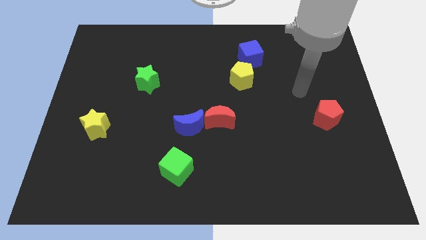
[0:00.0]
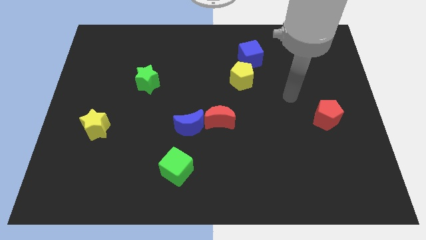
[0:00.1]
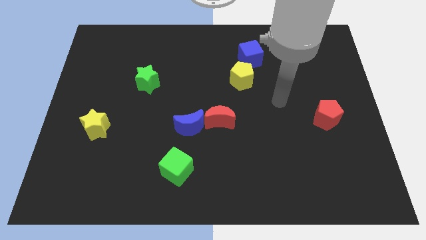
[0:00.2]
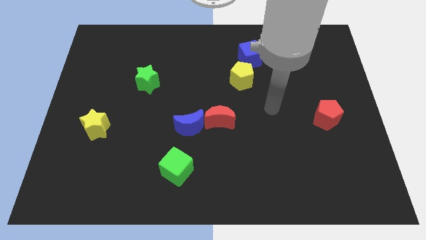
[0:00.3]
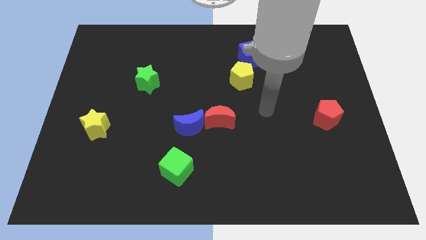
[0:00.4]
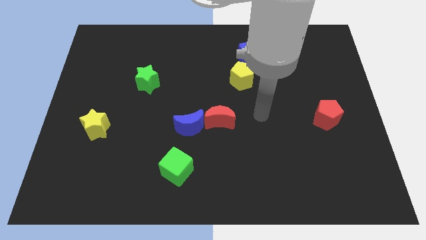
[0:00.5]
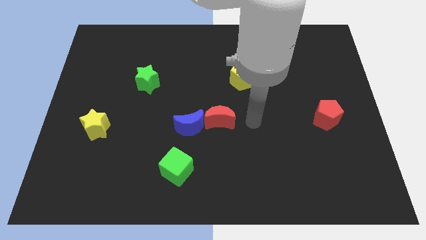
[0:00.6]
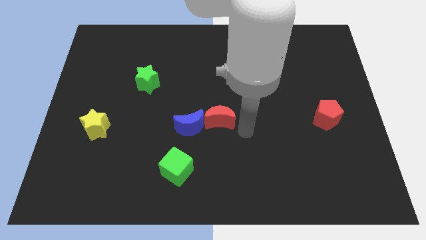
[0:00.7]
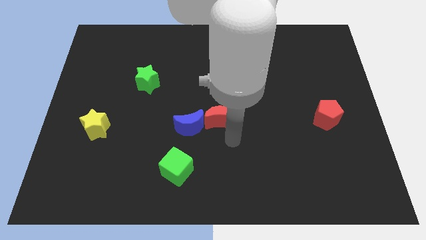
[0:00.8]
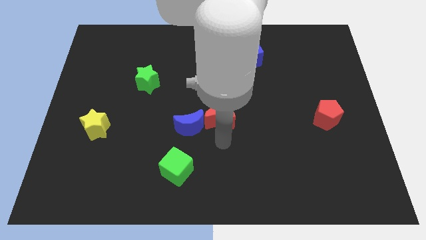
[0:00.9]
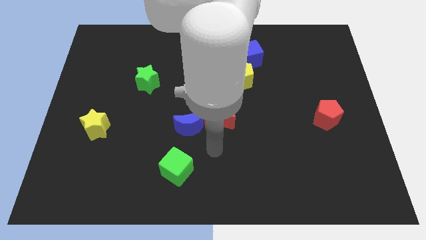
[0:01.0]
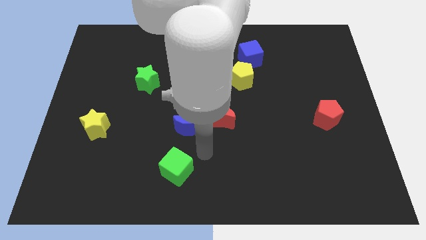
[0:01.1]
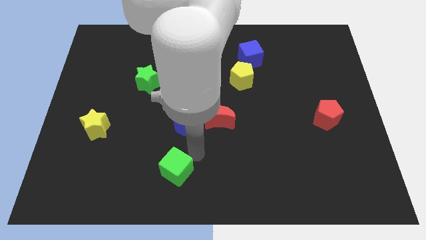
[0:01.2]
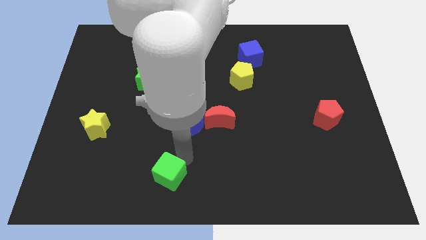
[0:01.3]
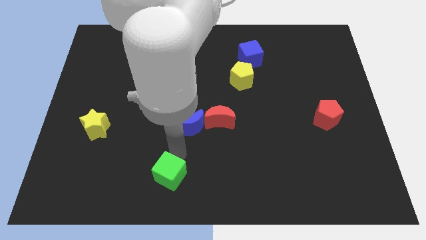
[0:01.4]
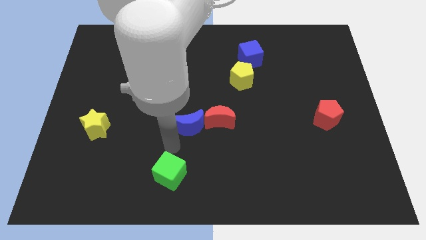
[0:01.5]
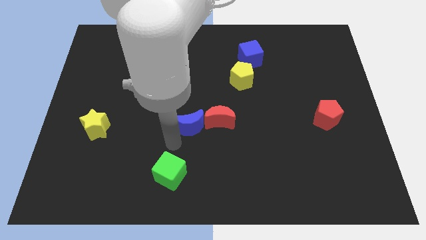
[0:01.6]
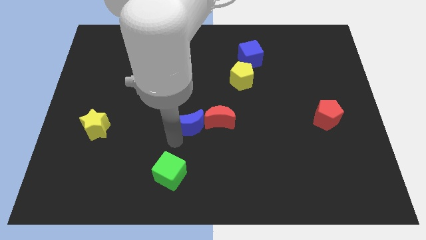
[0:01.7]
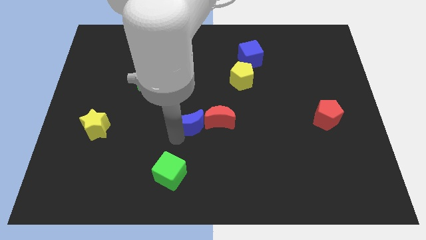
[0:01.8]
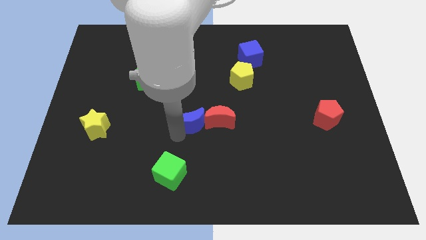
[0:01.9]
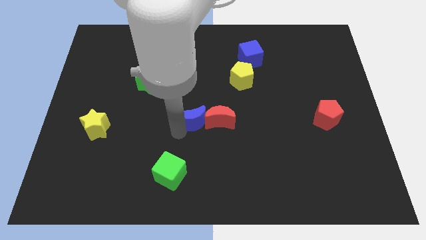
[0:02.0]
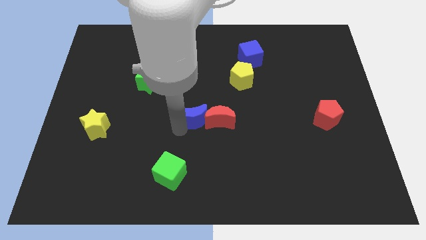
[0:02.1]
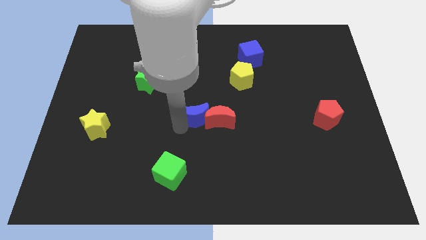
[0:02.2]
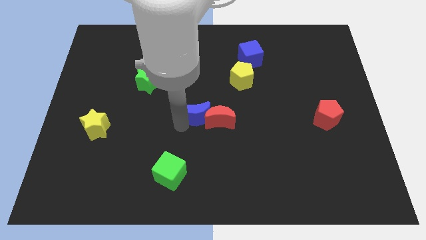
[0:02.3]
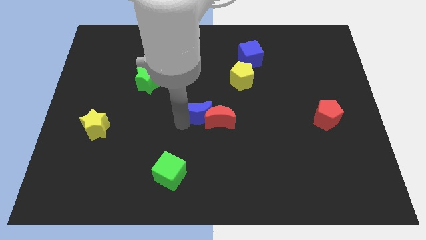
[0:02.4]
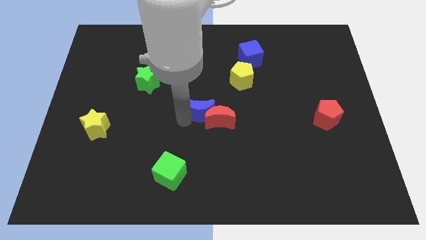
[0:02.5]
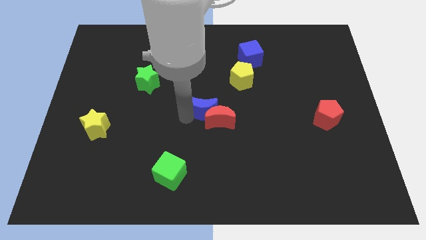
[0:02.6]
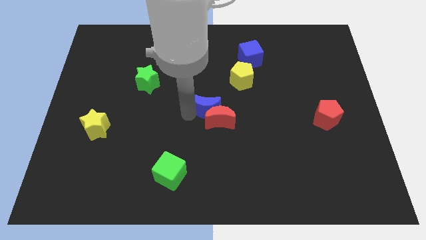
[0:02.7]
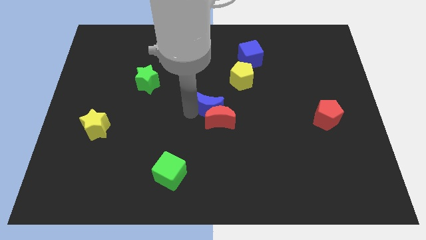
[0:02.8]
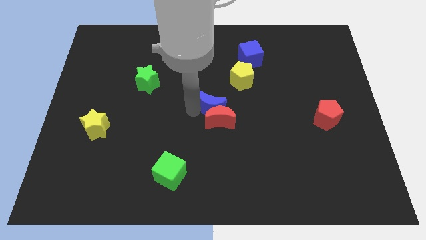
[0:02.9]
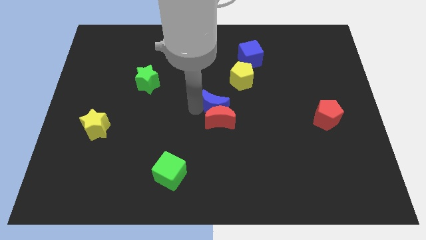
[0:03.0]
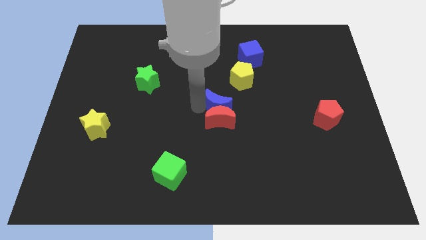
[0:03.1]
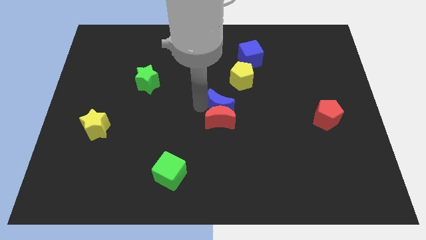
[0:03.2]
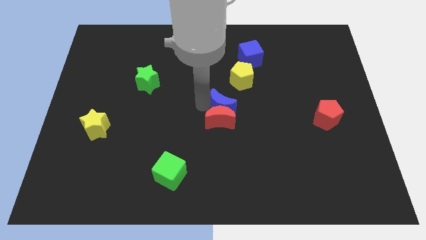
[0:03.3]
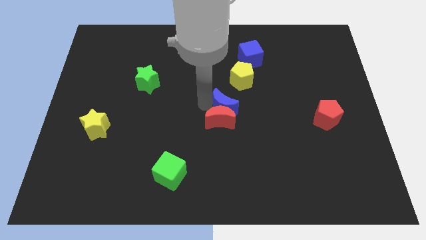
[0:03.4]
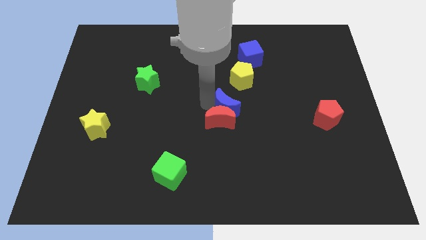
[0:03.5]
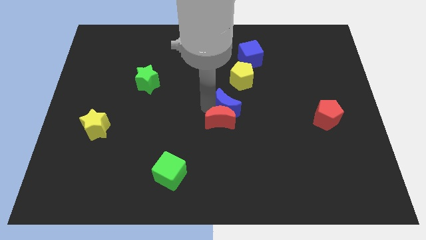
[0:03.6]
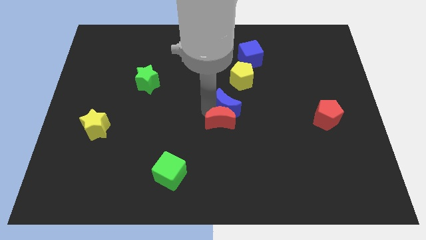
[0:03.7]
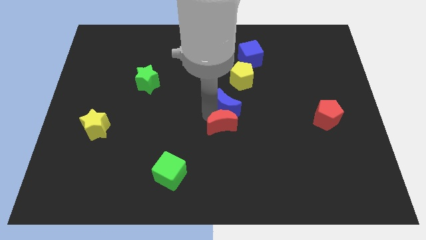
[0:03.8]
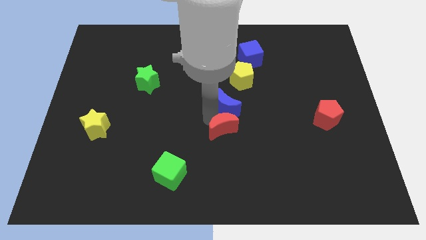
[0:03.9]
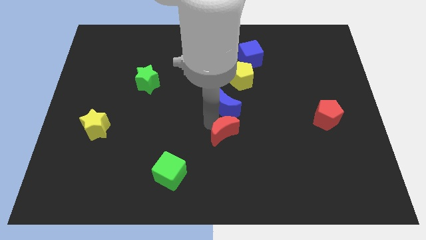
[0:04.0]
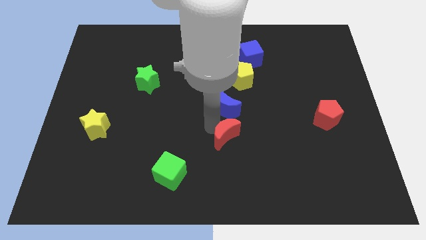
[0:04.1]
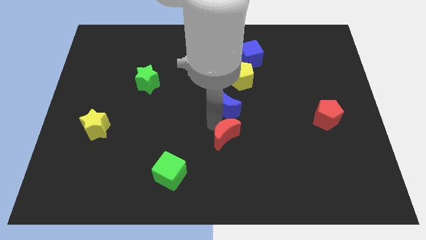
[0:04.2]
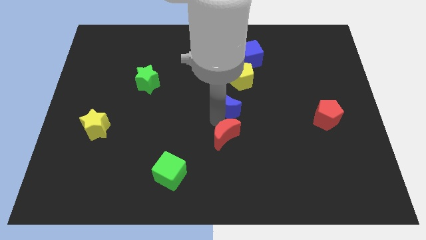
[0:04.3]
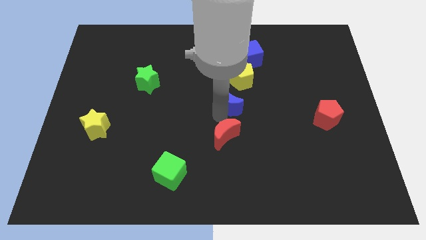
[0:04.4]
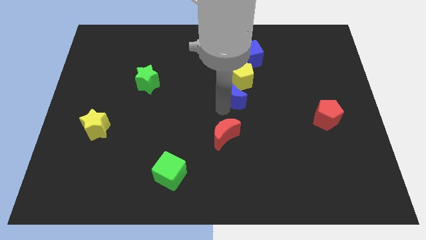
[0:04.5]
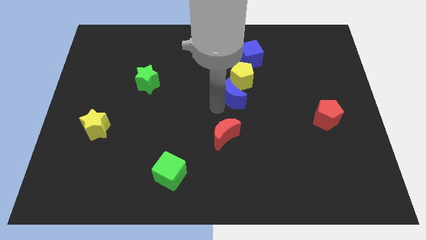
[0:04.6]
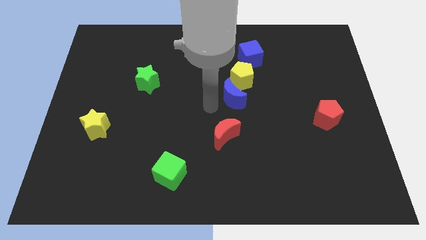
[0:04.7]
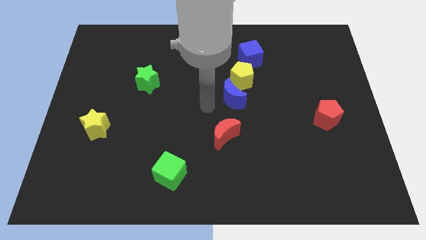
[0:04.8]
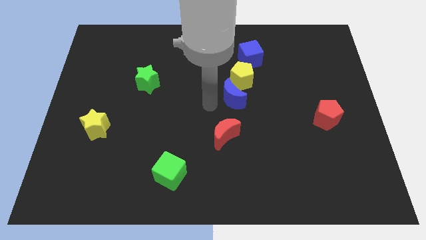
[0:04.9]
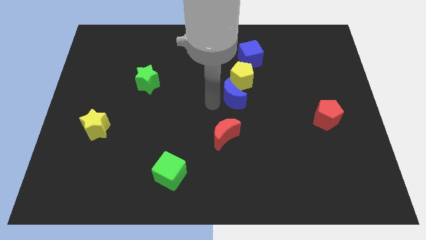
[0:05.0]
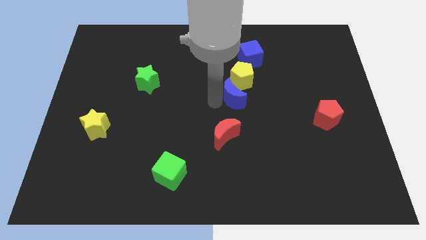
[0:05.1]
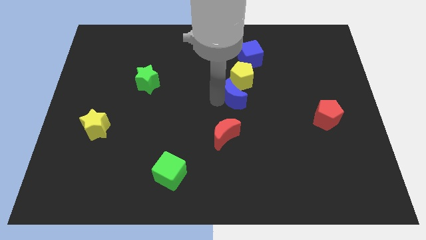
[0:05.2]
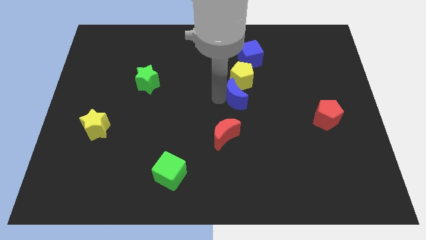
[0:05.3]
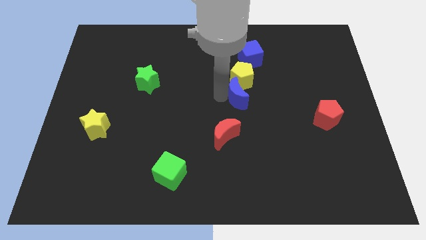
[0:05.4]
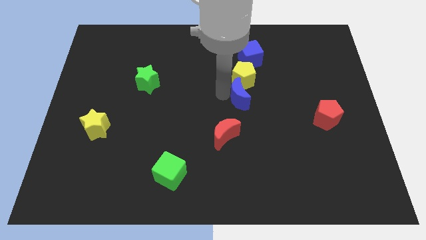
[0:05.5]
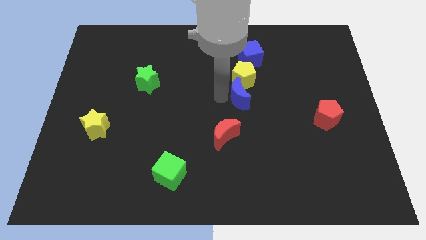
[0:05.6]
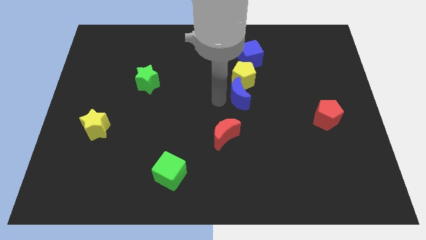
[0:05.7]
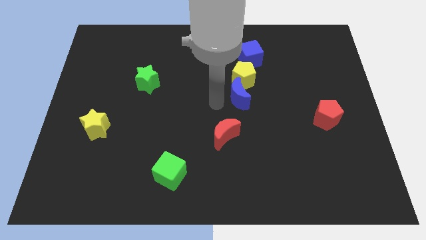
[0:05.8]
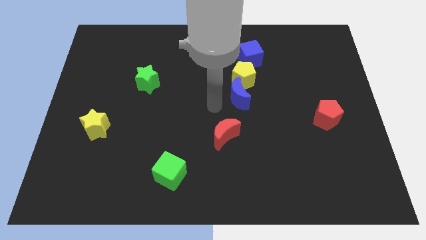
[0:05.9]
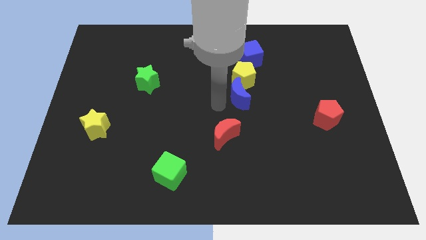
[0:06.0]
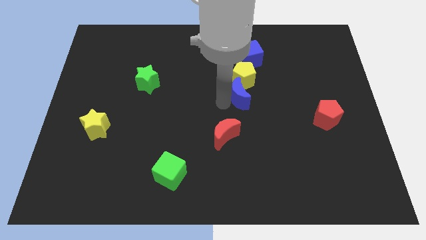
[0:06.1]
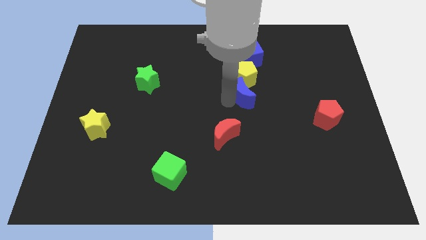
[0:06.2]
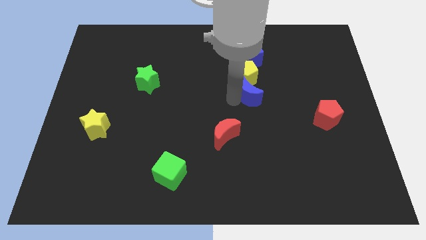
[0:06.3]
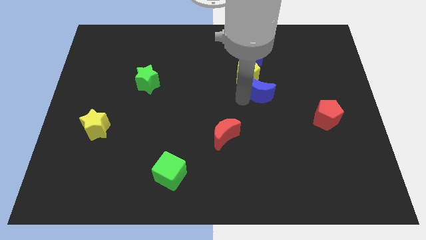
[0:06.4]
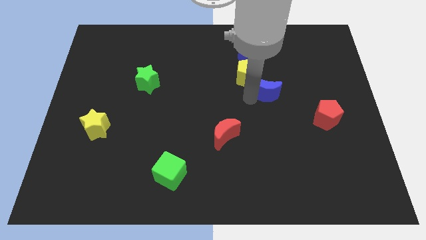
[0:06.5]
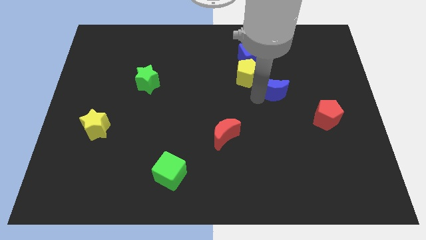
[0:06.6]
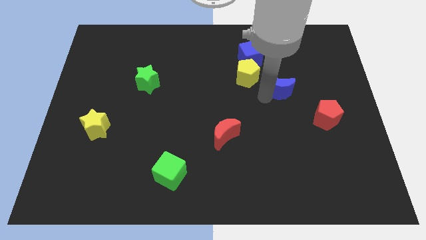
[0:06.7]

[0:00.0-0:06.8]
slide the blue moon upwards and then right

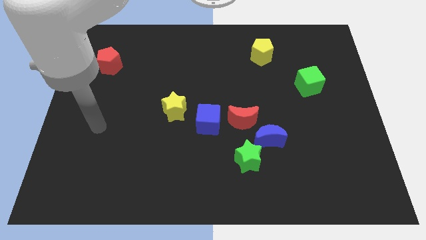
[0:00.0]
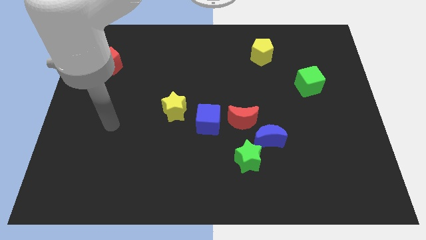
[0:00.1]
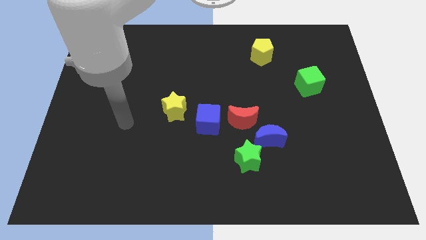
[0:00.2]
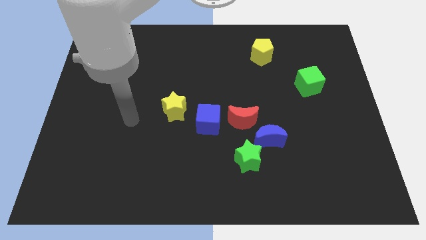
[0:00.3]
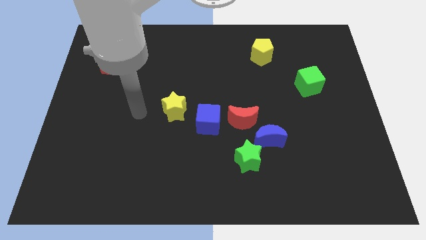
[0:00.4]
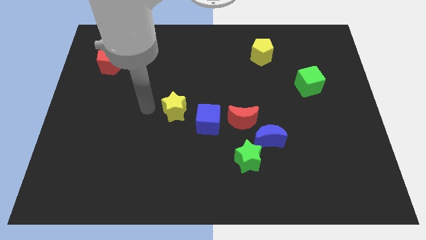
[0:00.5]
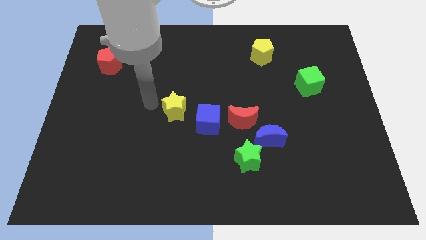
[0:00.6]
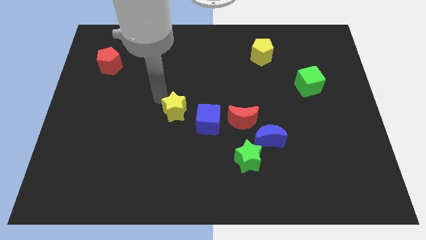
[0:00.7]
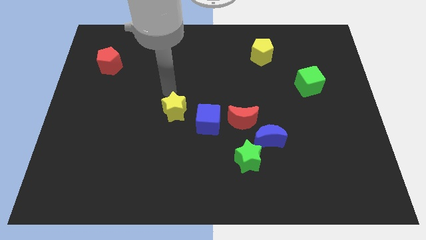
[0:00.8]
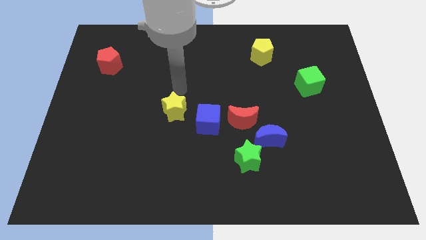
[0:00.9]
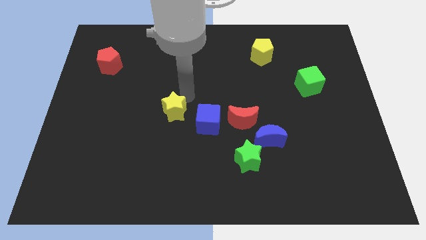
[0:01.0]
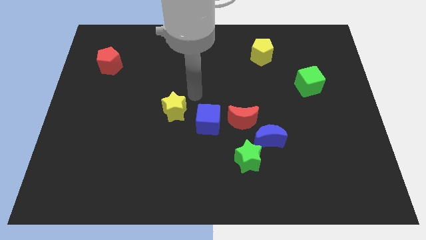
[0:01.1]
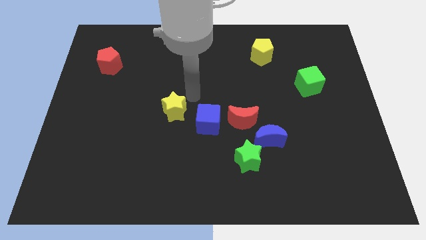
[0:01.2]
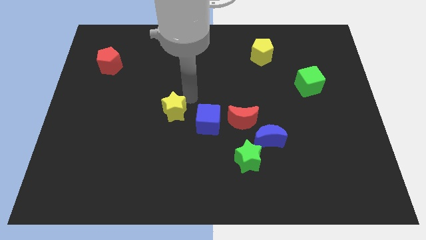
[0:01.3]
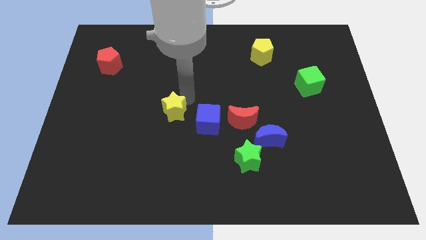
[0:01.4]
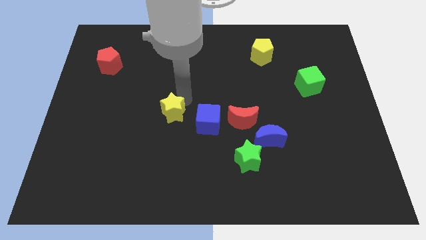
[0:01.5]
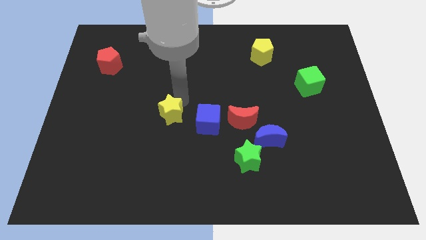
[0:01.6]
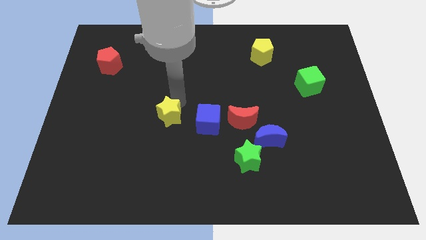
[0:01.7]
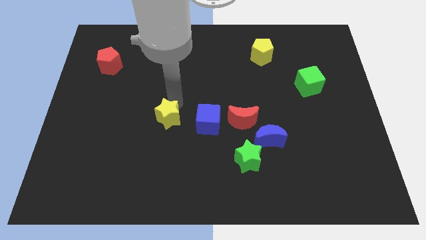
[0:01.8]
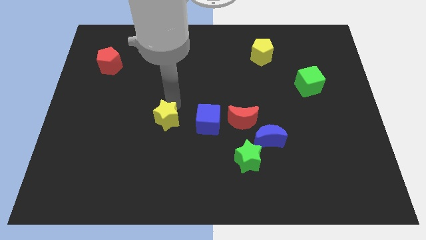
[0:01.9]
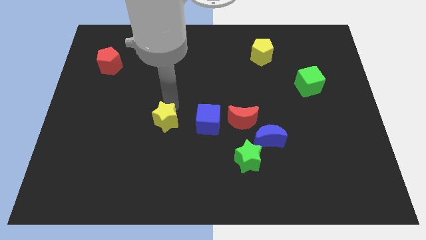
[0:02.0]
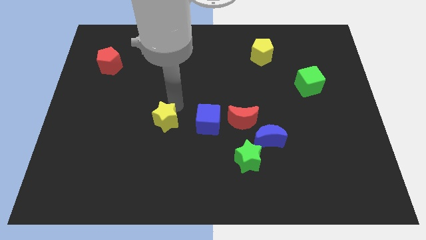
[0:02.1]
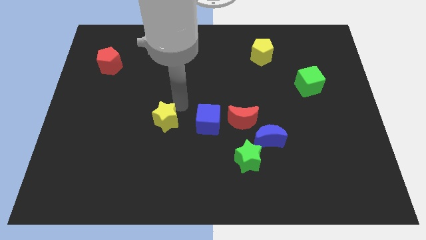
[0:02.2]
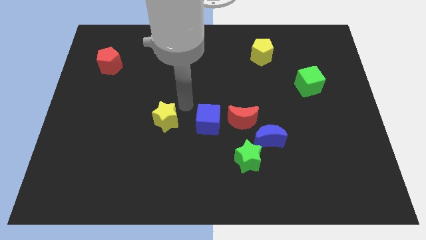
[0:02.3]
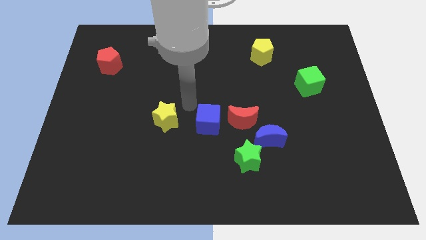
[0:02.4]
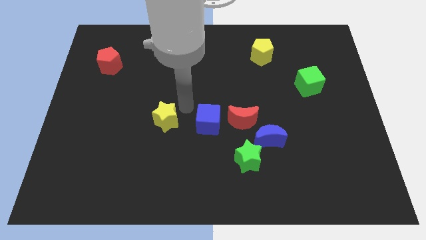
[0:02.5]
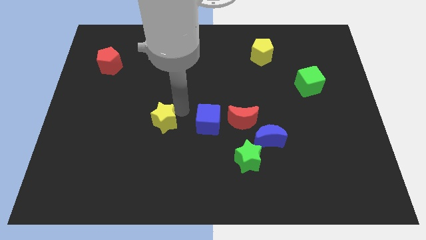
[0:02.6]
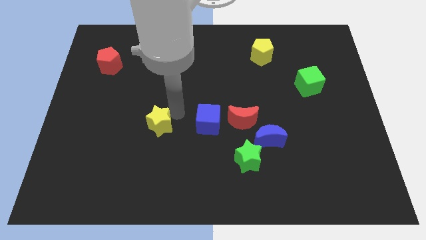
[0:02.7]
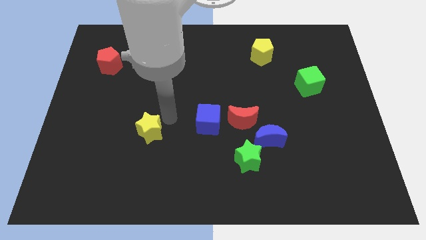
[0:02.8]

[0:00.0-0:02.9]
push the yellow star downwards and then to the left slightly
